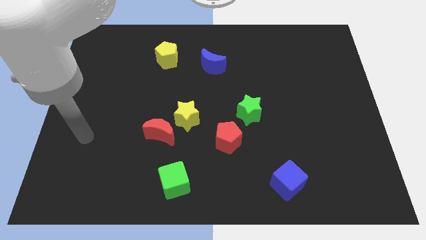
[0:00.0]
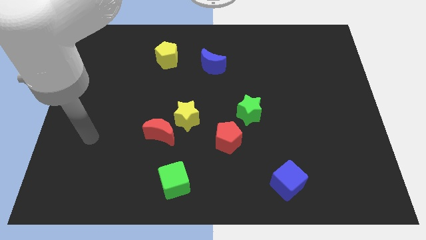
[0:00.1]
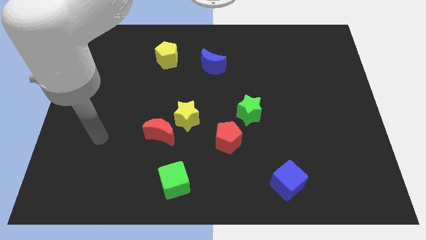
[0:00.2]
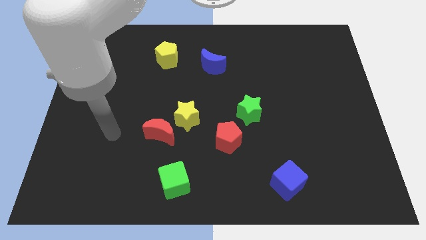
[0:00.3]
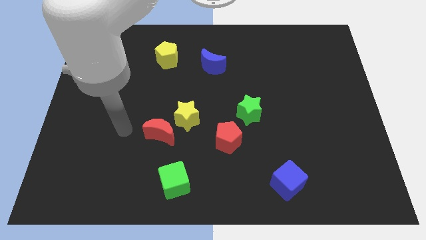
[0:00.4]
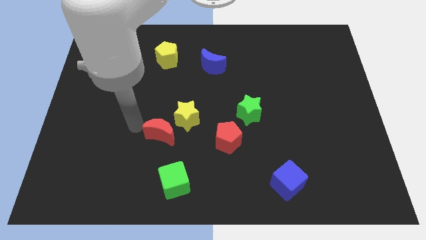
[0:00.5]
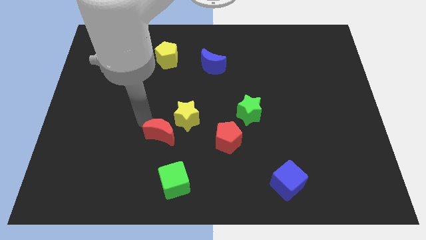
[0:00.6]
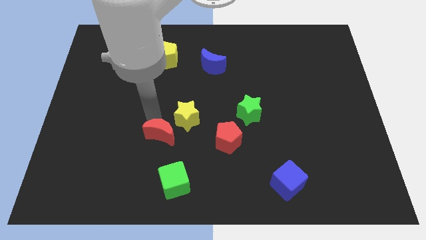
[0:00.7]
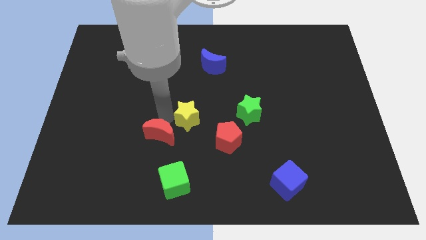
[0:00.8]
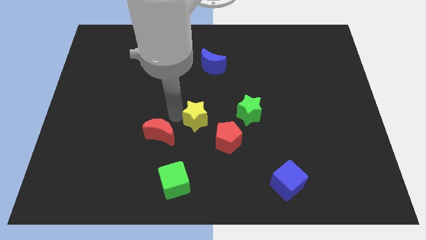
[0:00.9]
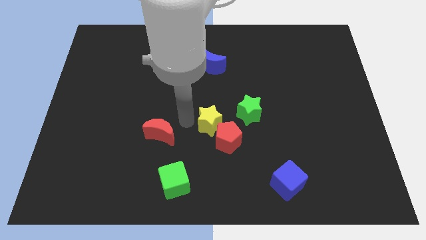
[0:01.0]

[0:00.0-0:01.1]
pull the red moon apart from the yellow star

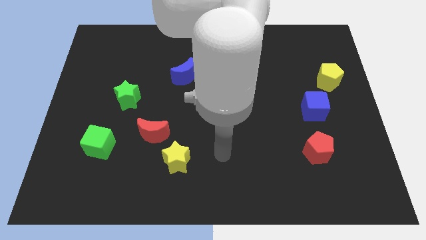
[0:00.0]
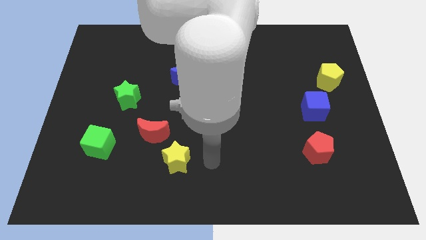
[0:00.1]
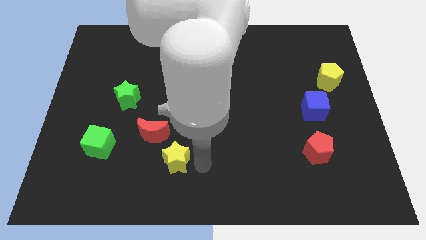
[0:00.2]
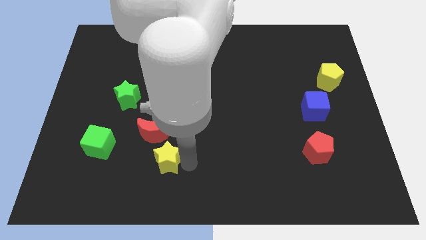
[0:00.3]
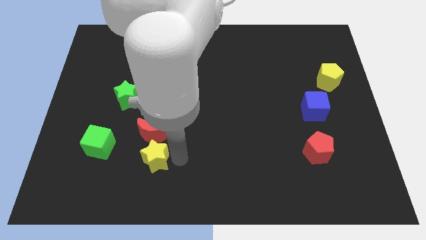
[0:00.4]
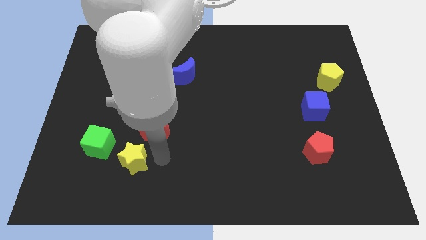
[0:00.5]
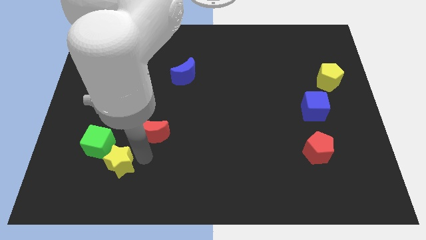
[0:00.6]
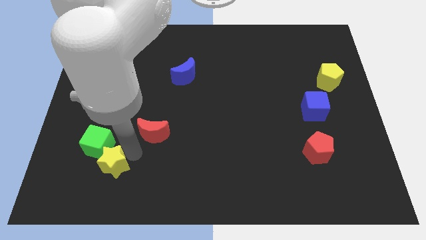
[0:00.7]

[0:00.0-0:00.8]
move the red moon away from the yellow star

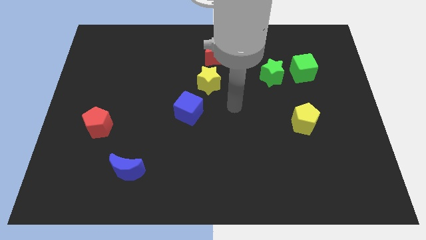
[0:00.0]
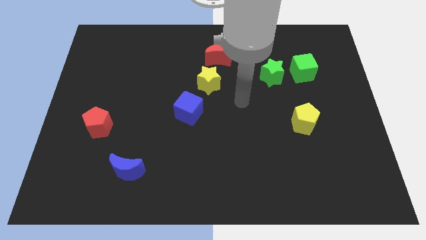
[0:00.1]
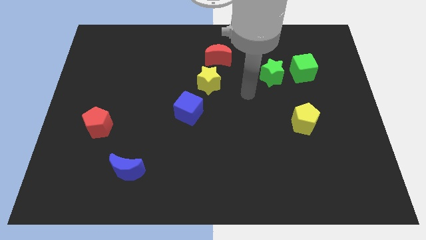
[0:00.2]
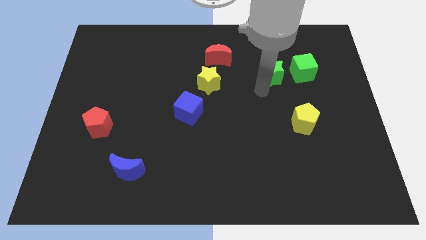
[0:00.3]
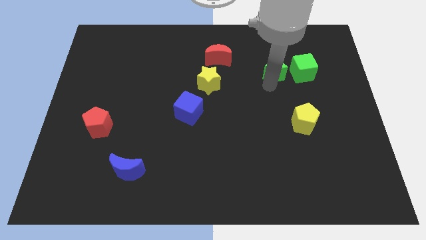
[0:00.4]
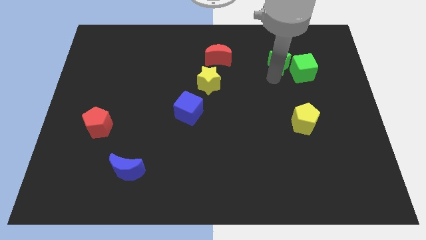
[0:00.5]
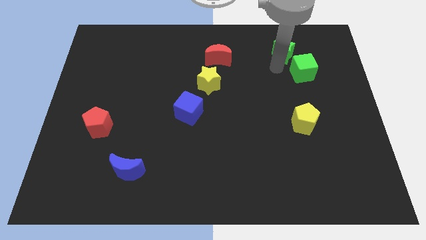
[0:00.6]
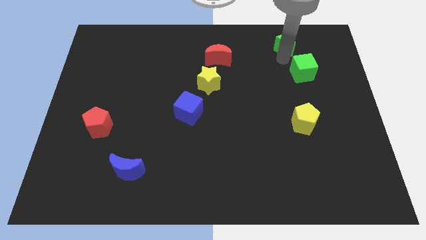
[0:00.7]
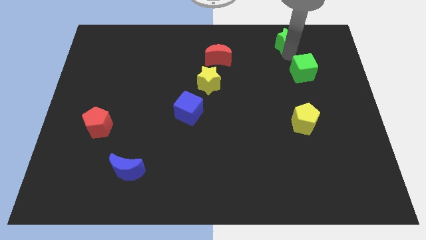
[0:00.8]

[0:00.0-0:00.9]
separate the green cube from the green star

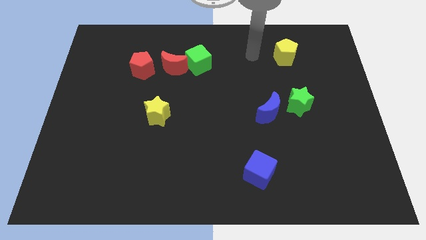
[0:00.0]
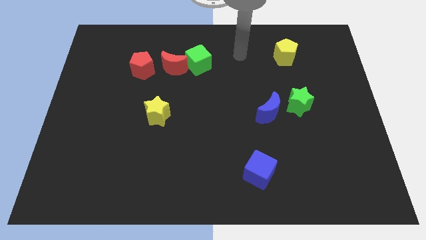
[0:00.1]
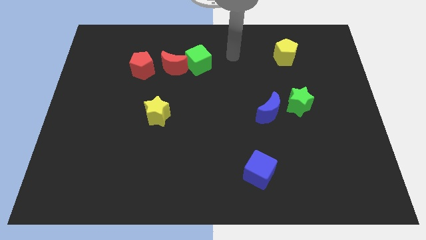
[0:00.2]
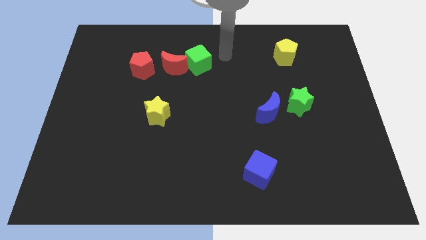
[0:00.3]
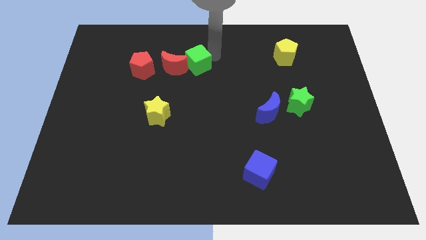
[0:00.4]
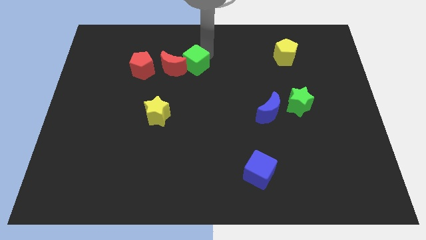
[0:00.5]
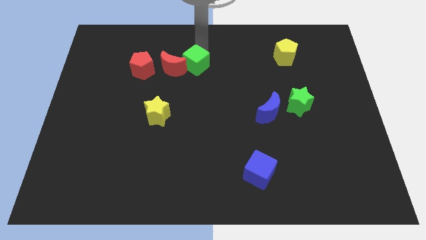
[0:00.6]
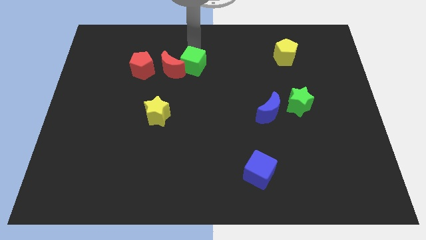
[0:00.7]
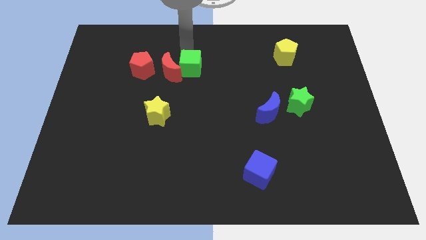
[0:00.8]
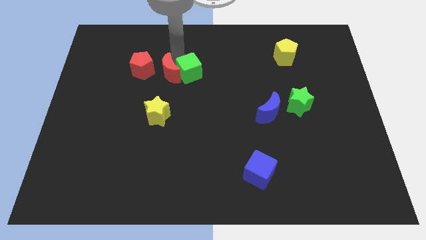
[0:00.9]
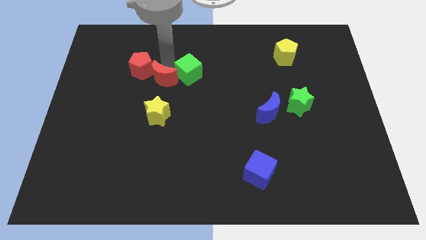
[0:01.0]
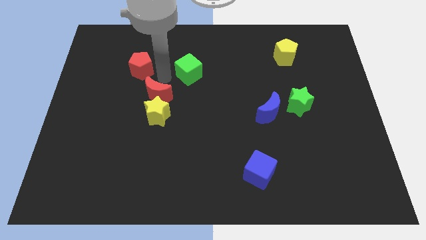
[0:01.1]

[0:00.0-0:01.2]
separate the green cube from the red moon

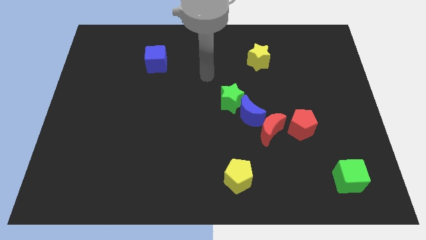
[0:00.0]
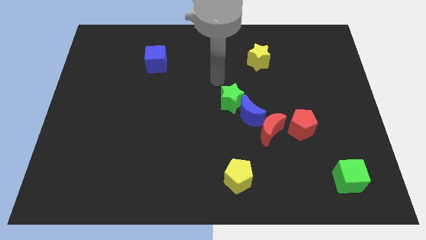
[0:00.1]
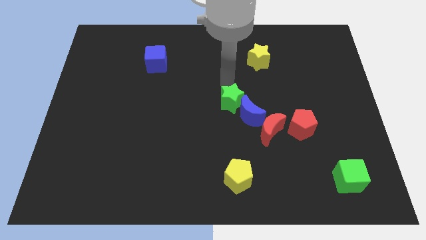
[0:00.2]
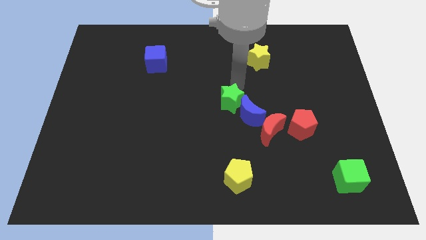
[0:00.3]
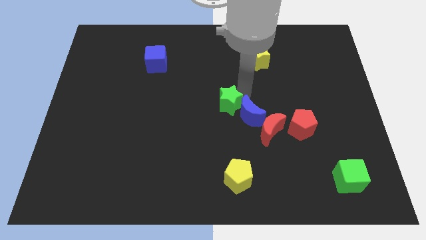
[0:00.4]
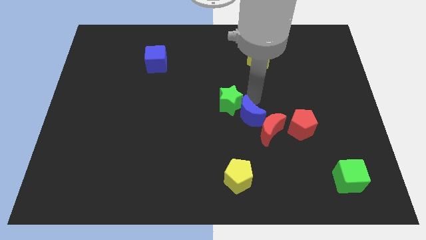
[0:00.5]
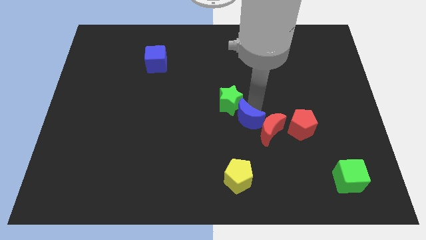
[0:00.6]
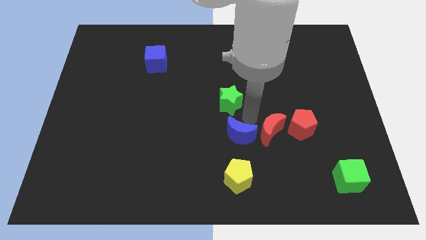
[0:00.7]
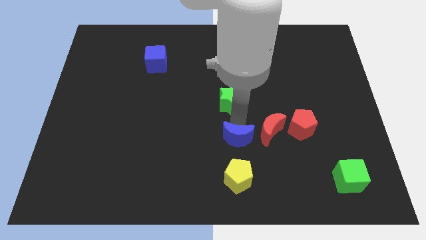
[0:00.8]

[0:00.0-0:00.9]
separate the green star from the blue moon

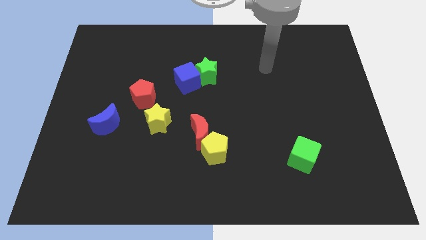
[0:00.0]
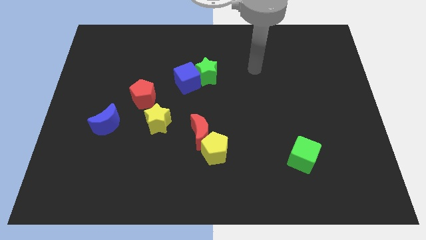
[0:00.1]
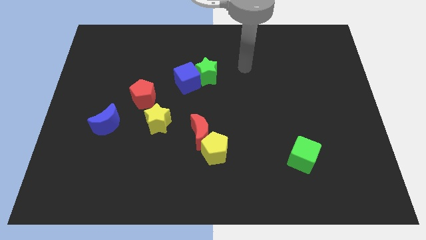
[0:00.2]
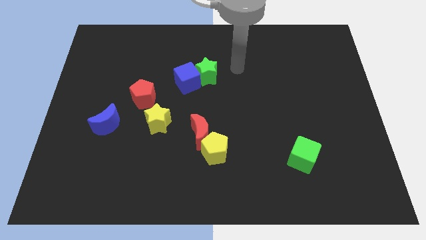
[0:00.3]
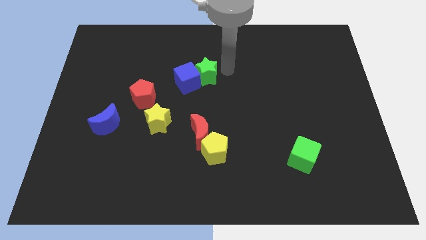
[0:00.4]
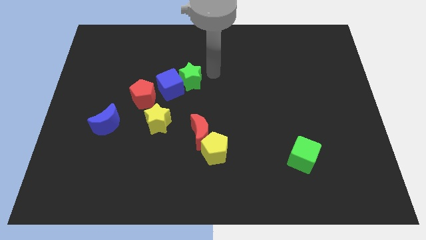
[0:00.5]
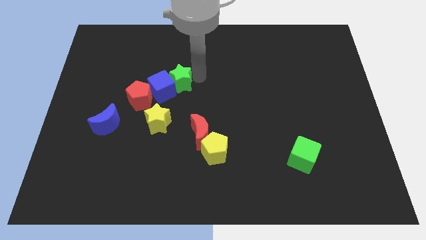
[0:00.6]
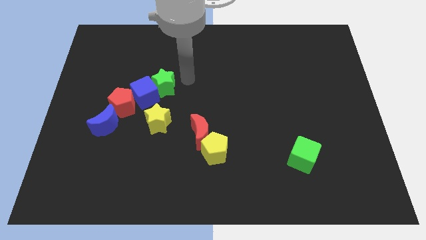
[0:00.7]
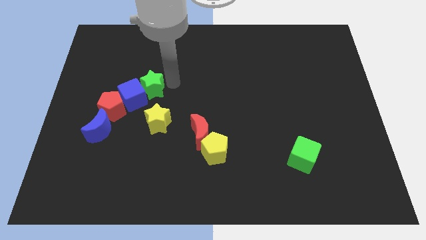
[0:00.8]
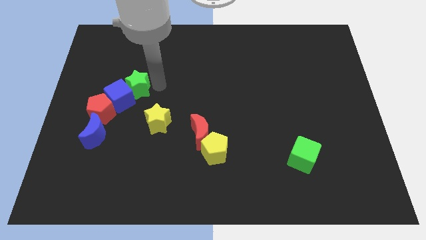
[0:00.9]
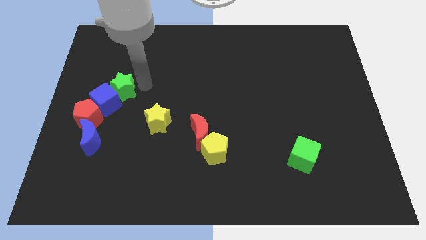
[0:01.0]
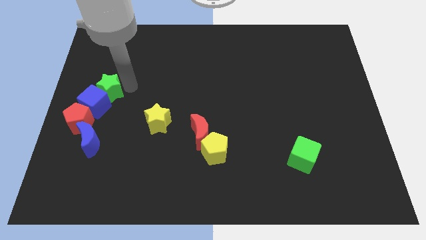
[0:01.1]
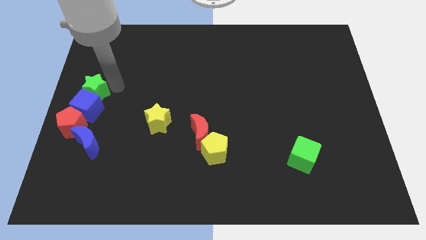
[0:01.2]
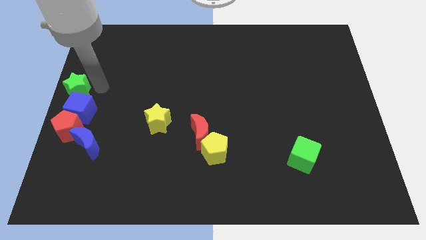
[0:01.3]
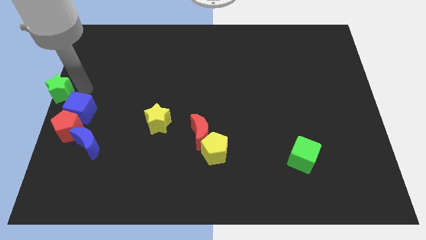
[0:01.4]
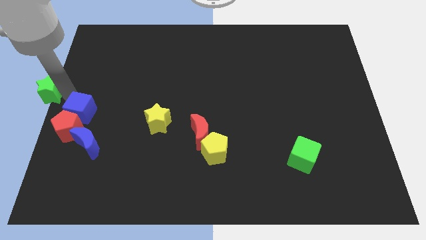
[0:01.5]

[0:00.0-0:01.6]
move the blue cube away from the green star

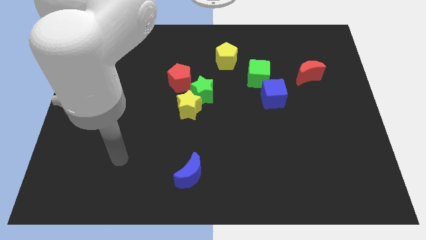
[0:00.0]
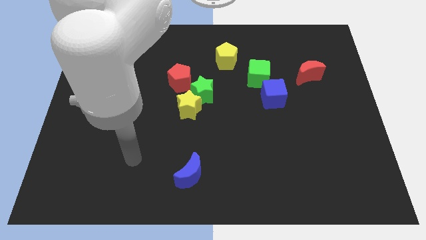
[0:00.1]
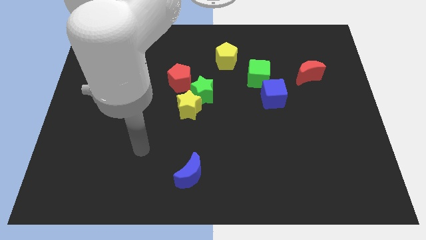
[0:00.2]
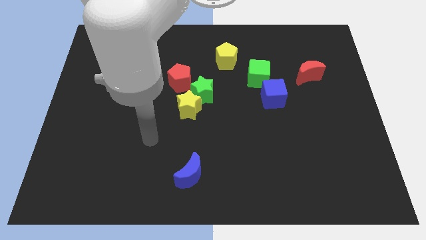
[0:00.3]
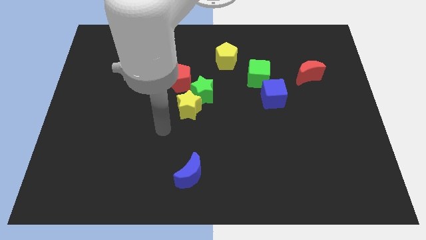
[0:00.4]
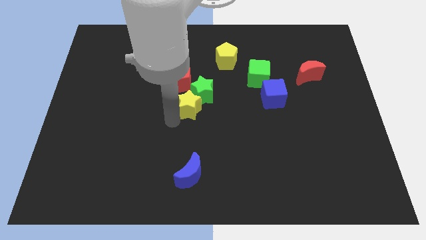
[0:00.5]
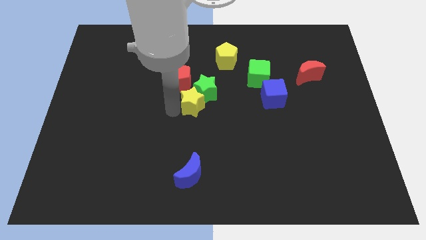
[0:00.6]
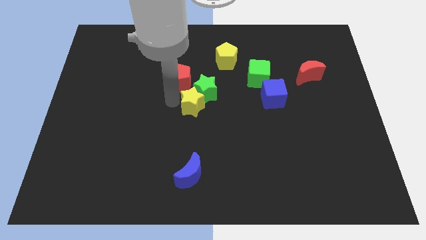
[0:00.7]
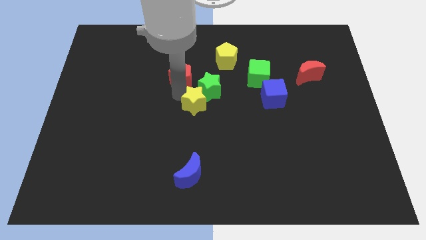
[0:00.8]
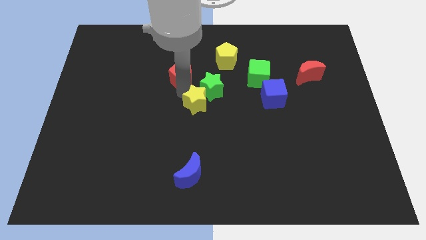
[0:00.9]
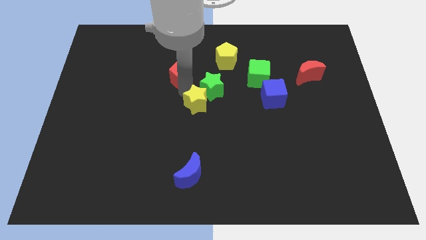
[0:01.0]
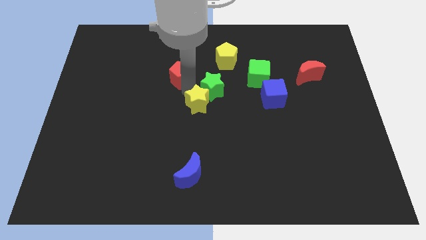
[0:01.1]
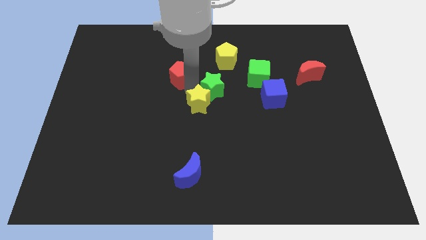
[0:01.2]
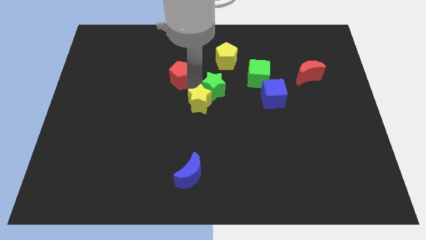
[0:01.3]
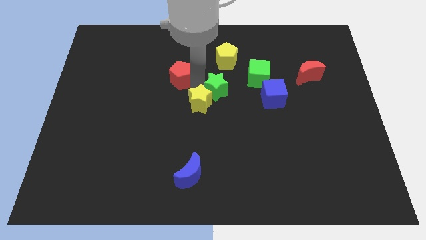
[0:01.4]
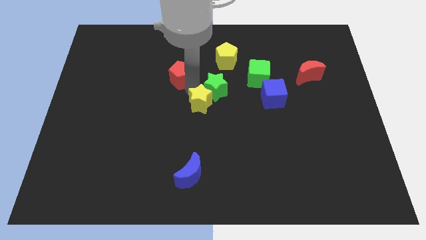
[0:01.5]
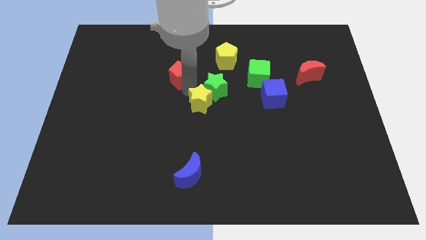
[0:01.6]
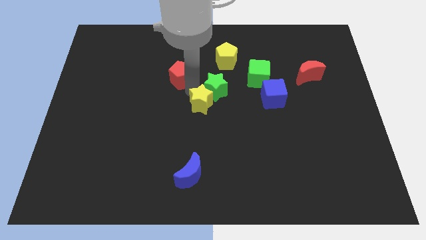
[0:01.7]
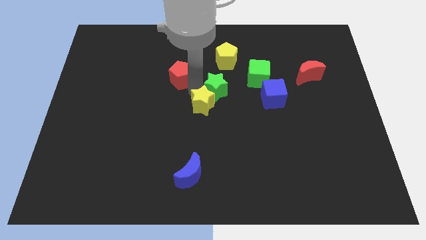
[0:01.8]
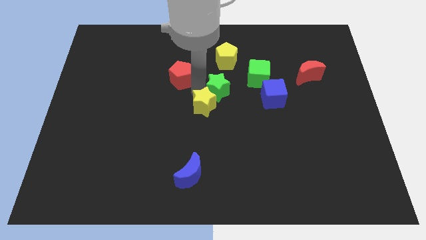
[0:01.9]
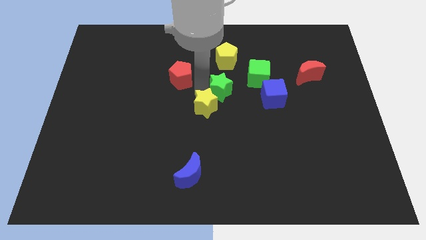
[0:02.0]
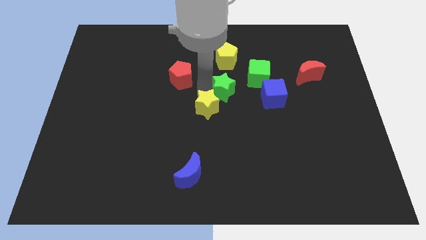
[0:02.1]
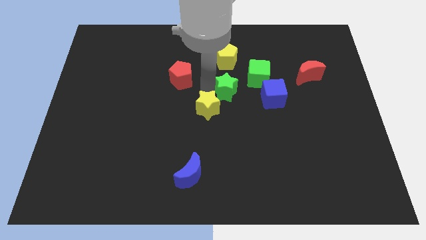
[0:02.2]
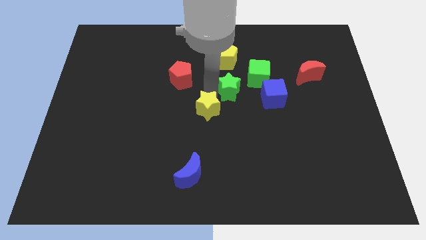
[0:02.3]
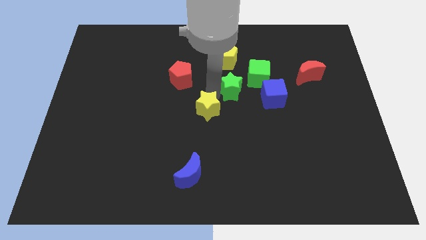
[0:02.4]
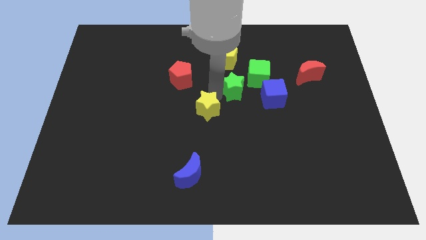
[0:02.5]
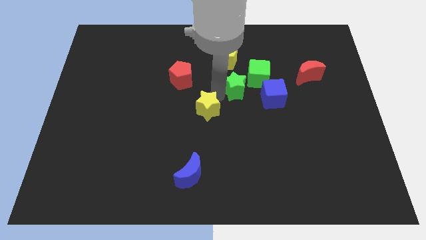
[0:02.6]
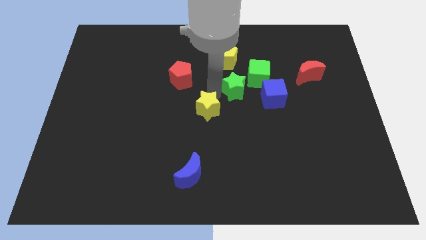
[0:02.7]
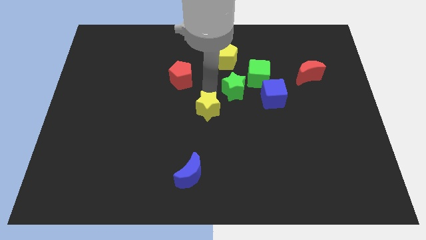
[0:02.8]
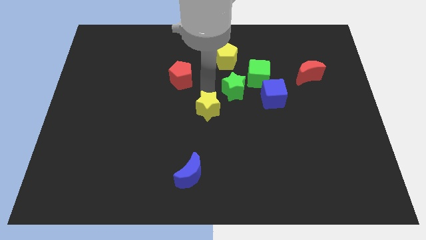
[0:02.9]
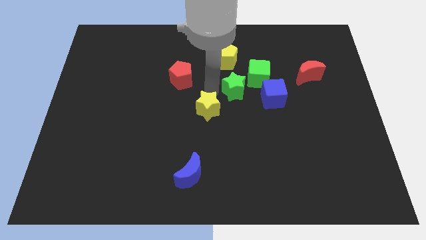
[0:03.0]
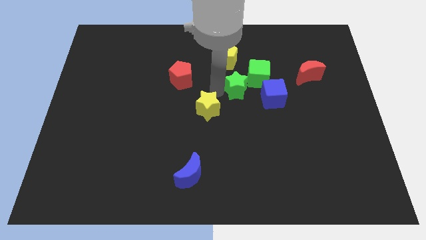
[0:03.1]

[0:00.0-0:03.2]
move the green star away from the yellow star and red pentagon
